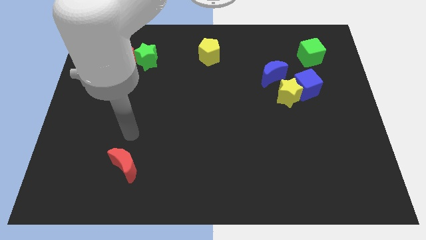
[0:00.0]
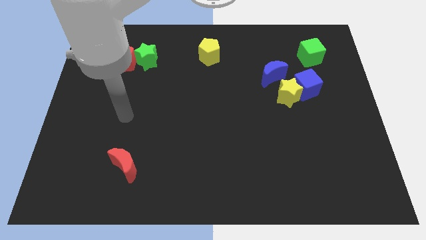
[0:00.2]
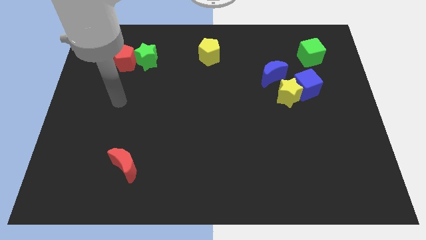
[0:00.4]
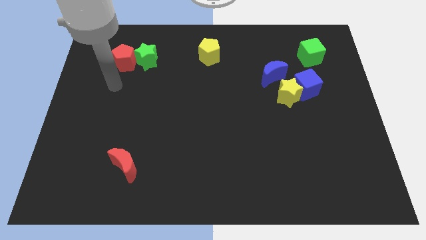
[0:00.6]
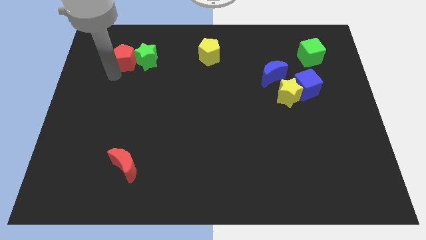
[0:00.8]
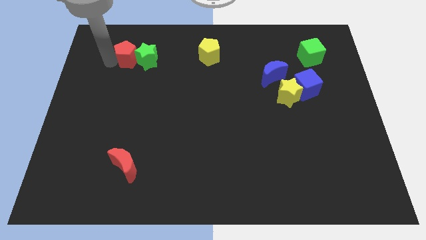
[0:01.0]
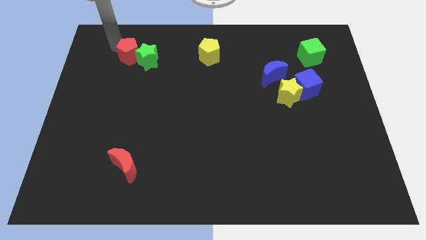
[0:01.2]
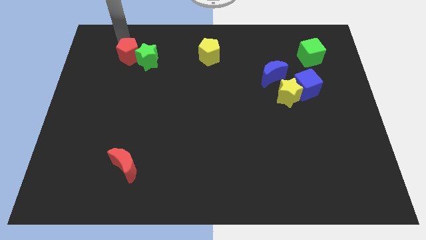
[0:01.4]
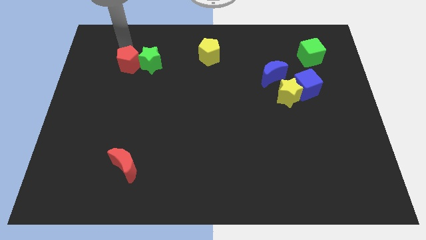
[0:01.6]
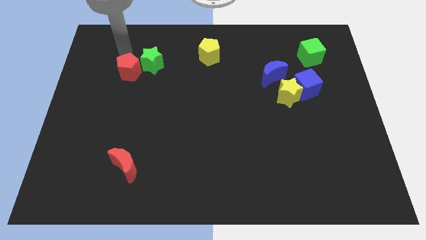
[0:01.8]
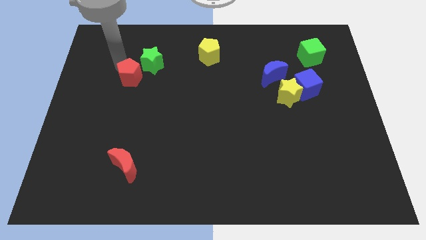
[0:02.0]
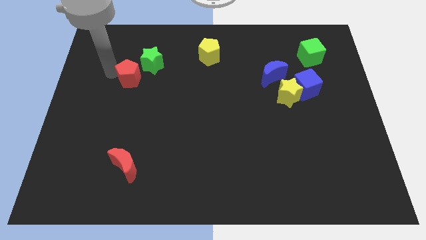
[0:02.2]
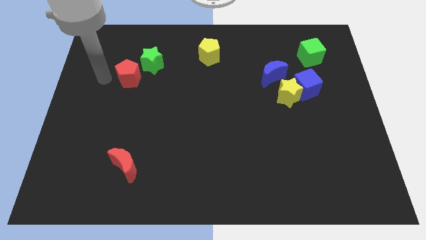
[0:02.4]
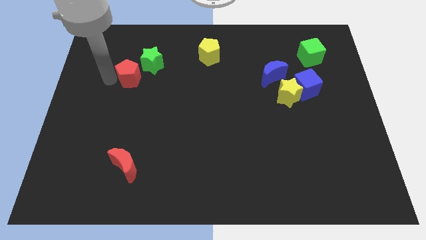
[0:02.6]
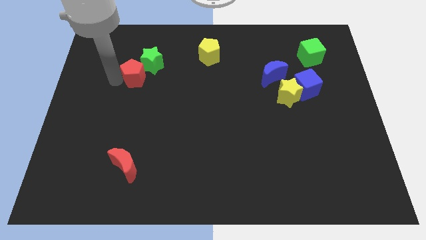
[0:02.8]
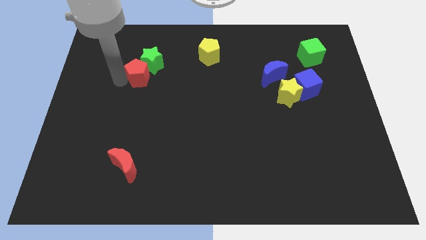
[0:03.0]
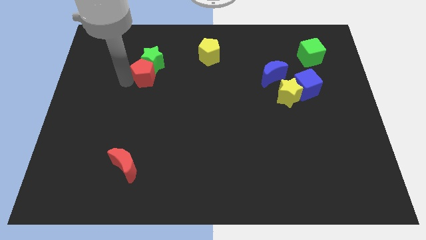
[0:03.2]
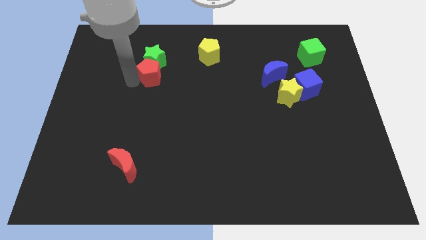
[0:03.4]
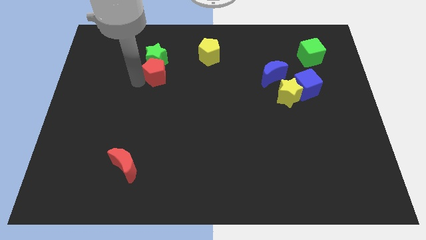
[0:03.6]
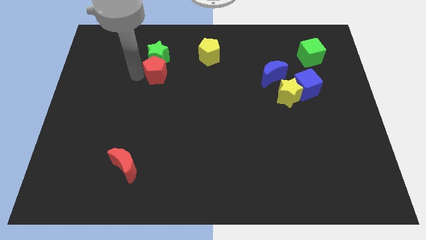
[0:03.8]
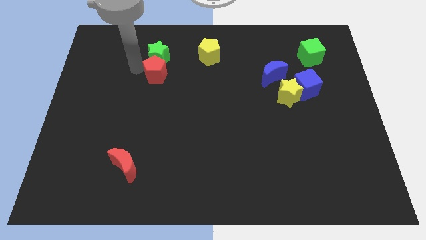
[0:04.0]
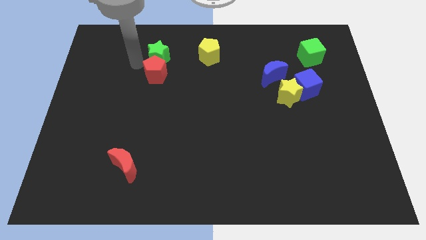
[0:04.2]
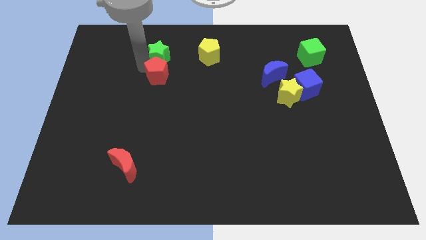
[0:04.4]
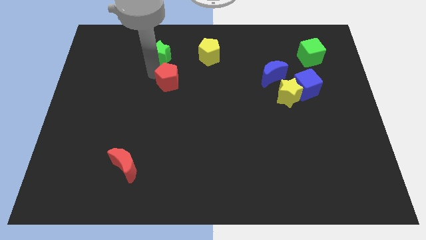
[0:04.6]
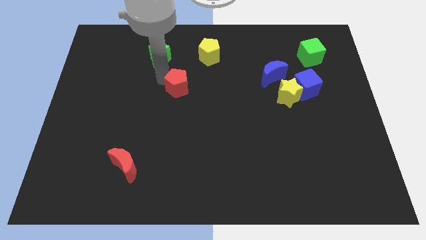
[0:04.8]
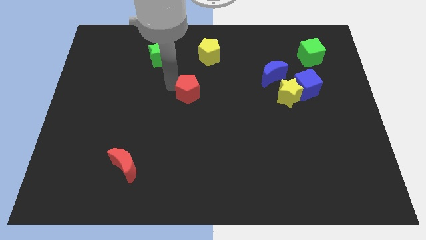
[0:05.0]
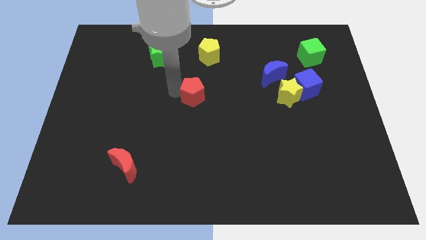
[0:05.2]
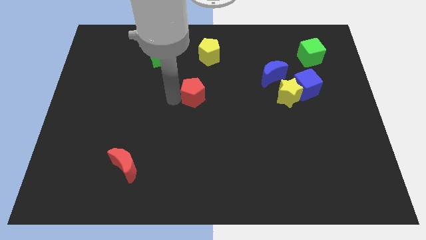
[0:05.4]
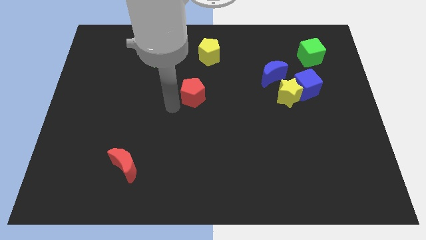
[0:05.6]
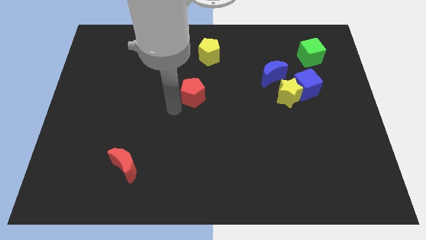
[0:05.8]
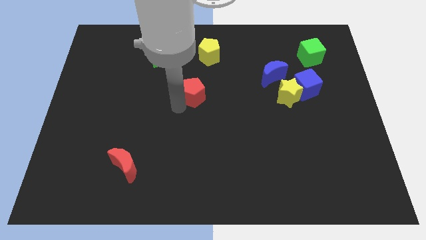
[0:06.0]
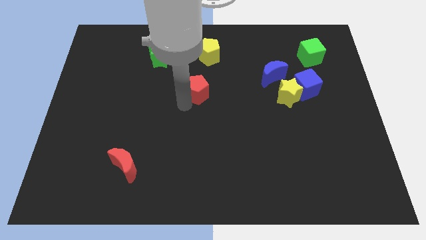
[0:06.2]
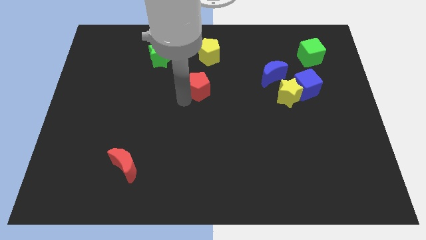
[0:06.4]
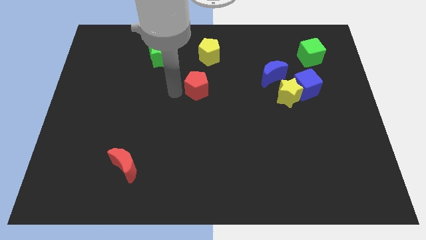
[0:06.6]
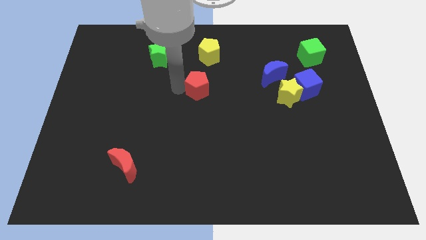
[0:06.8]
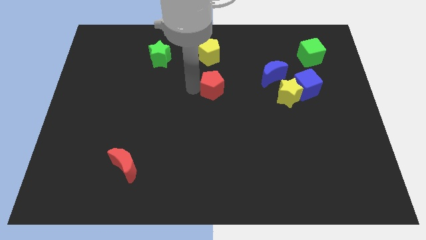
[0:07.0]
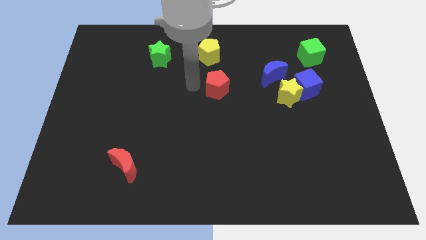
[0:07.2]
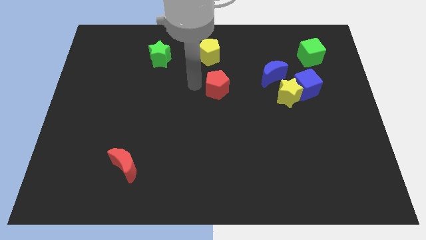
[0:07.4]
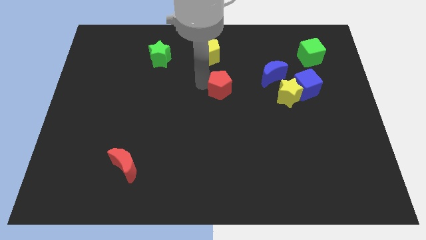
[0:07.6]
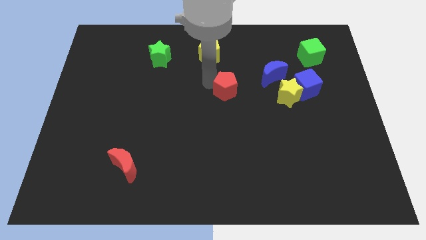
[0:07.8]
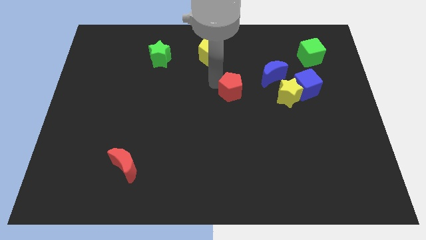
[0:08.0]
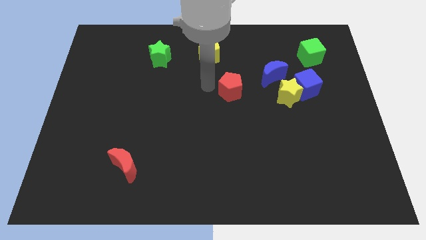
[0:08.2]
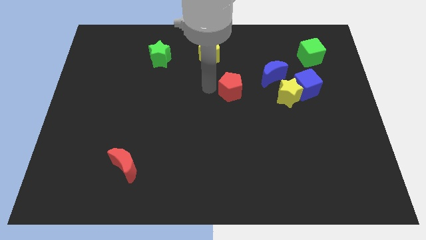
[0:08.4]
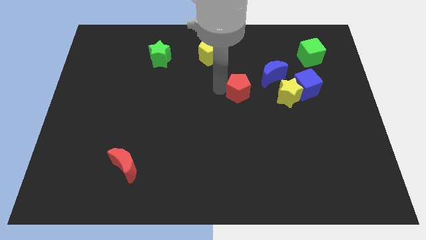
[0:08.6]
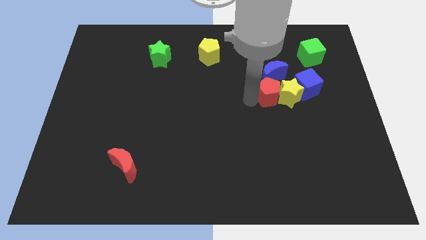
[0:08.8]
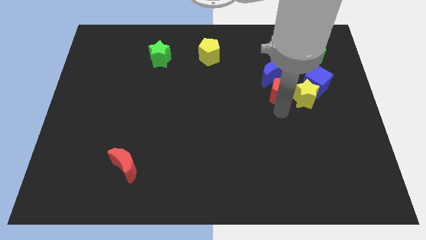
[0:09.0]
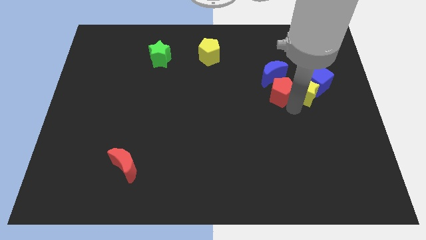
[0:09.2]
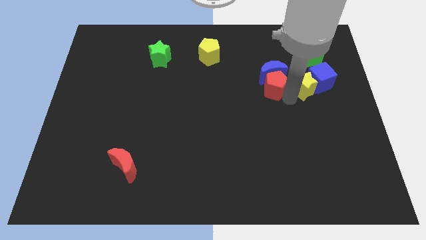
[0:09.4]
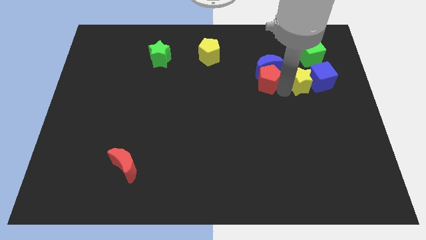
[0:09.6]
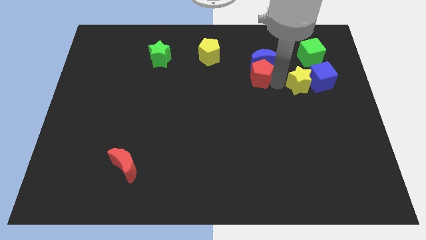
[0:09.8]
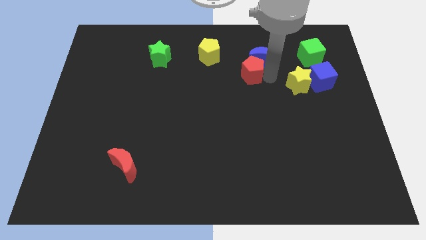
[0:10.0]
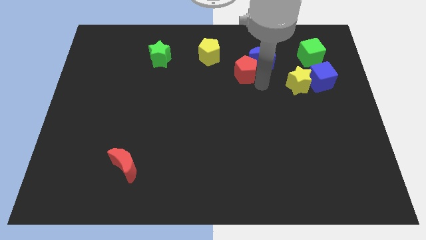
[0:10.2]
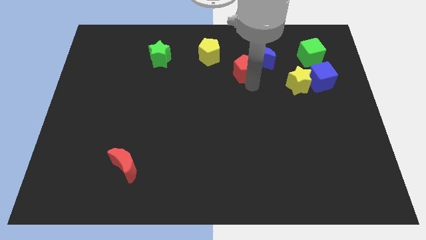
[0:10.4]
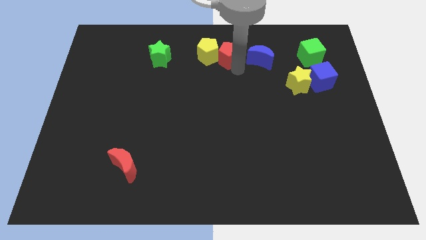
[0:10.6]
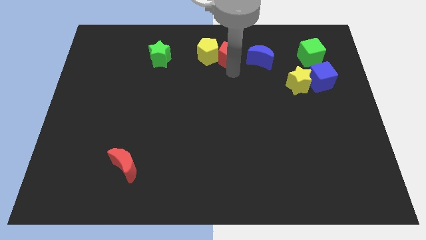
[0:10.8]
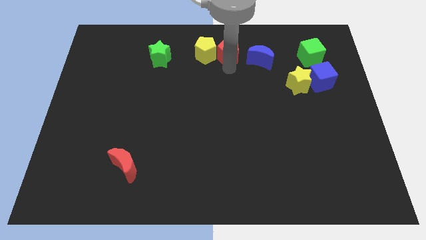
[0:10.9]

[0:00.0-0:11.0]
push the red pentagon to the top

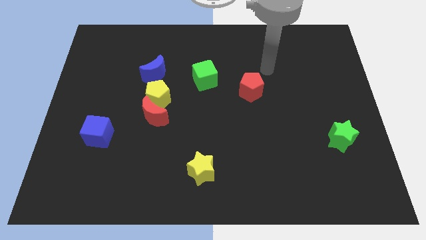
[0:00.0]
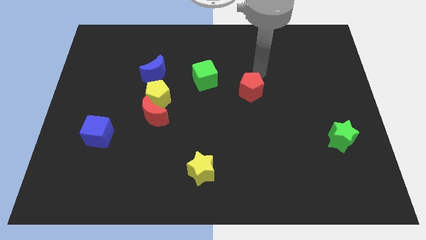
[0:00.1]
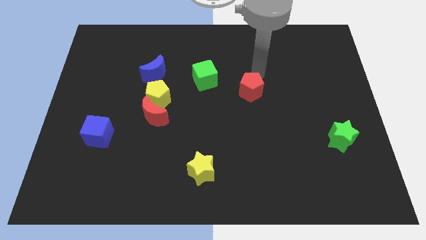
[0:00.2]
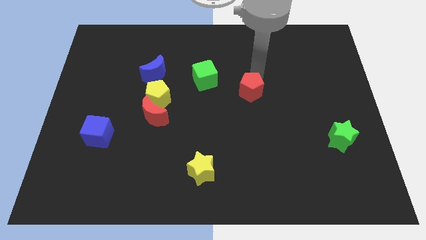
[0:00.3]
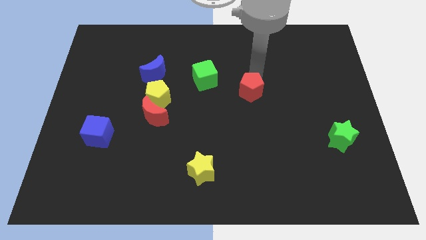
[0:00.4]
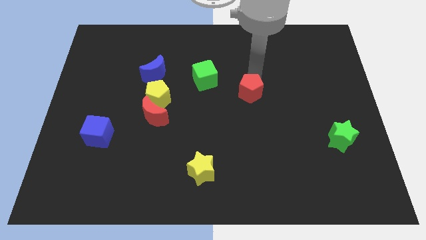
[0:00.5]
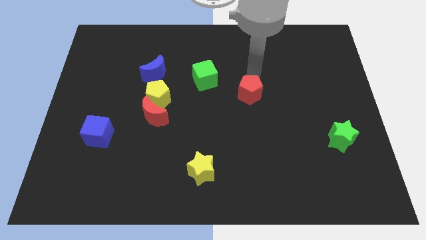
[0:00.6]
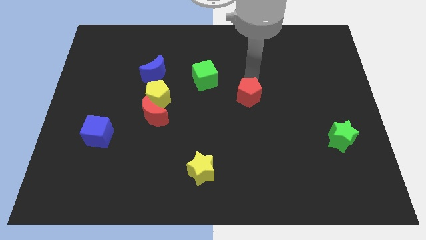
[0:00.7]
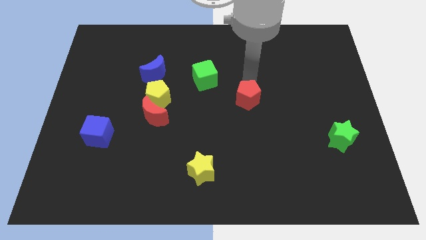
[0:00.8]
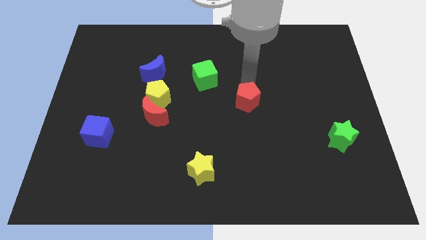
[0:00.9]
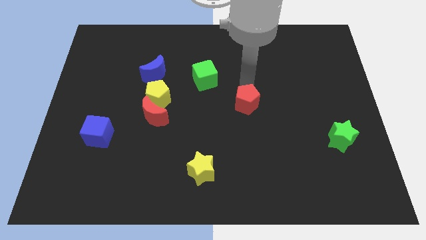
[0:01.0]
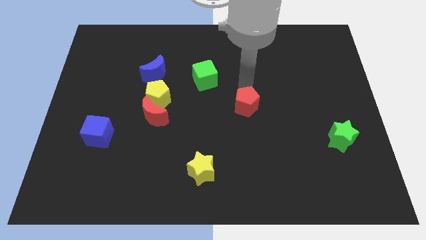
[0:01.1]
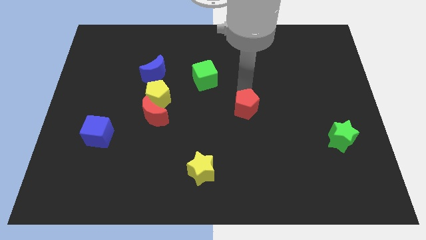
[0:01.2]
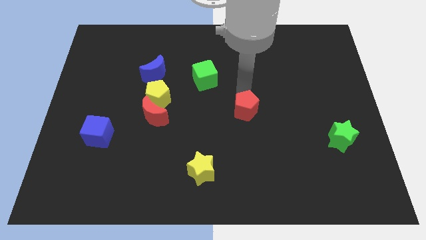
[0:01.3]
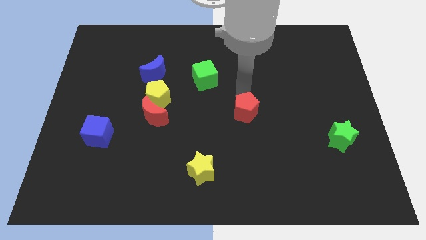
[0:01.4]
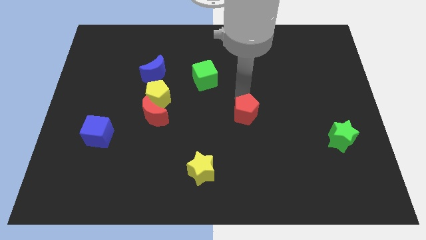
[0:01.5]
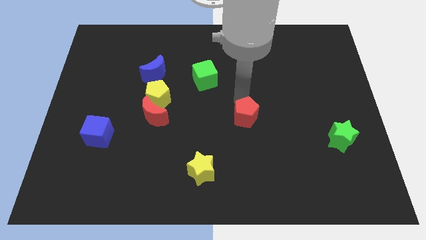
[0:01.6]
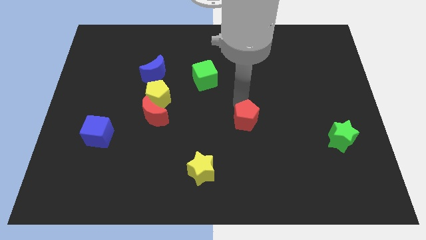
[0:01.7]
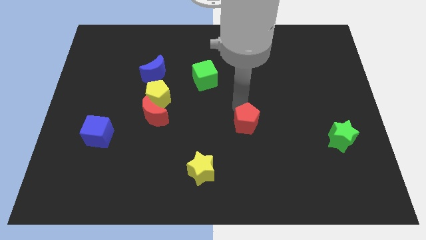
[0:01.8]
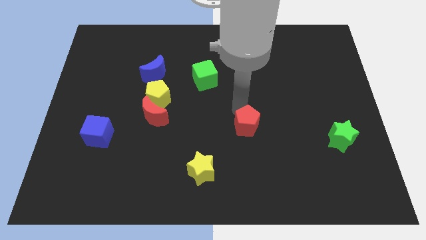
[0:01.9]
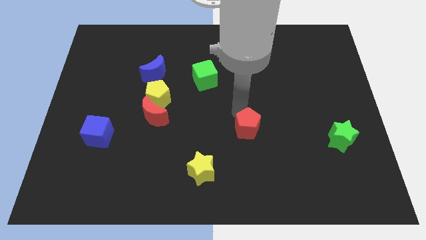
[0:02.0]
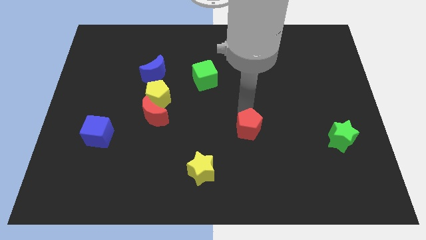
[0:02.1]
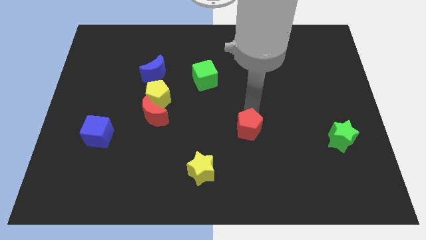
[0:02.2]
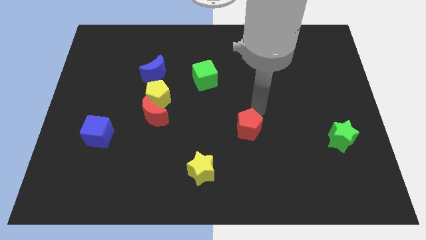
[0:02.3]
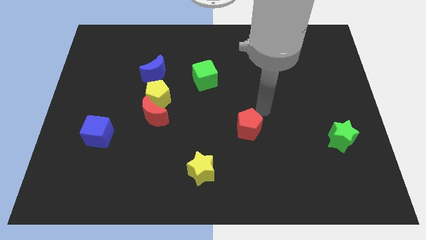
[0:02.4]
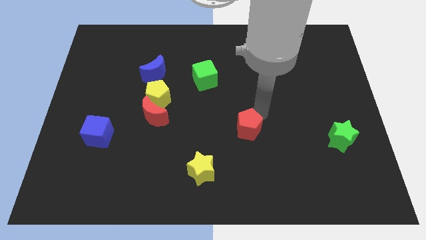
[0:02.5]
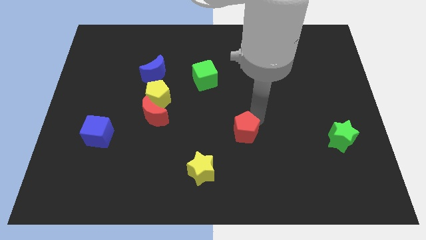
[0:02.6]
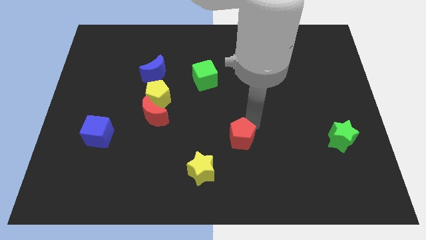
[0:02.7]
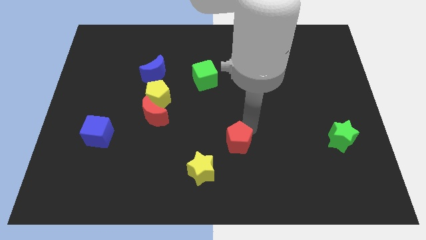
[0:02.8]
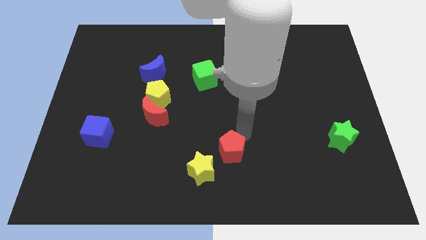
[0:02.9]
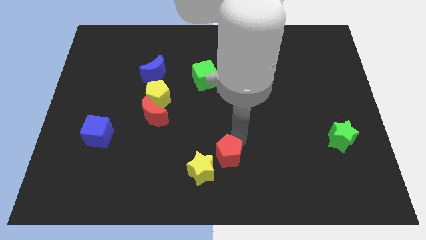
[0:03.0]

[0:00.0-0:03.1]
push the red pentagon to the bottom
